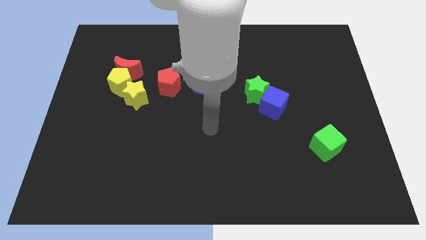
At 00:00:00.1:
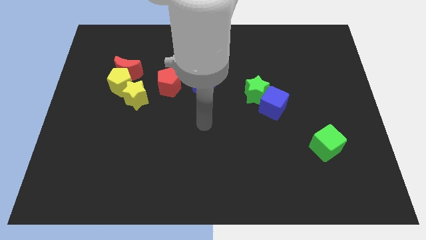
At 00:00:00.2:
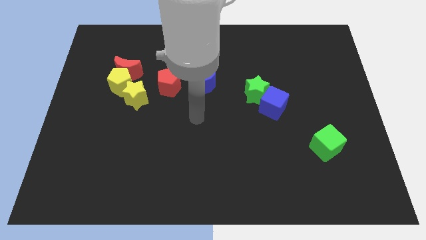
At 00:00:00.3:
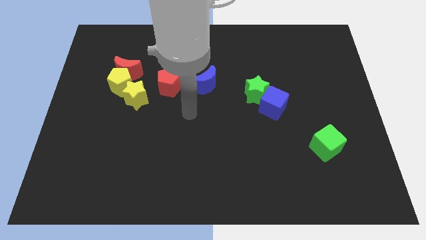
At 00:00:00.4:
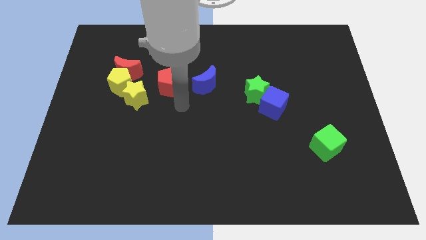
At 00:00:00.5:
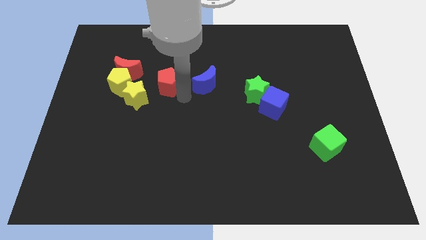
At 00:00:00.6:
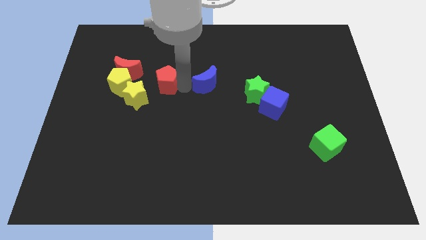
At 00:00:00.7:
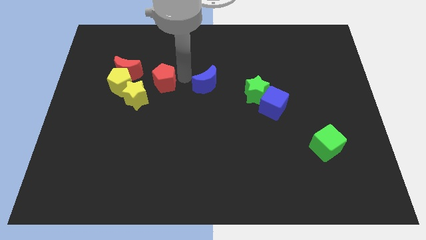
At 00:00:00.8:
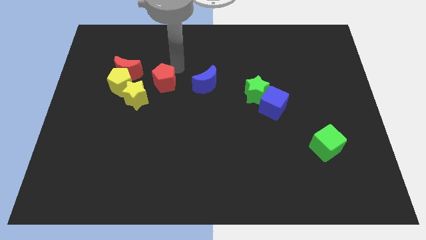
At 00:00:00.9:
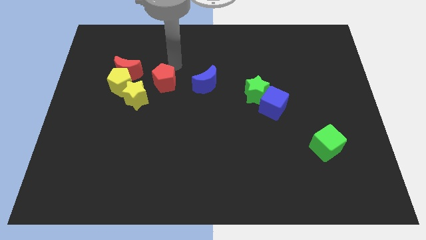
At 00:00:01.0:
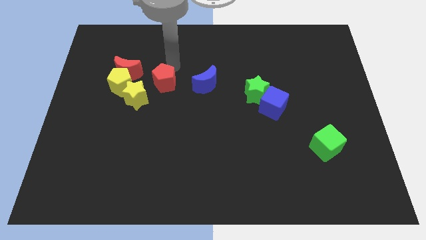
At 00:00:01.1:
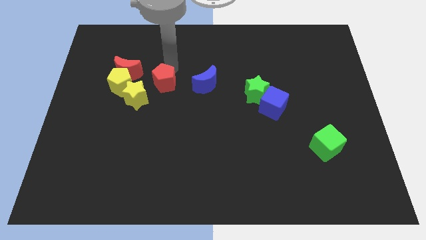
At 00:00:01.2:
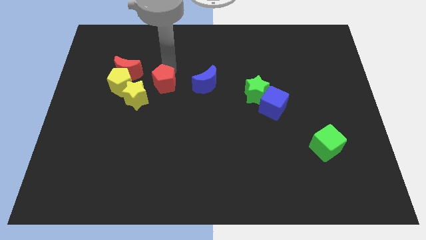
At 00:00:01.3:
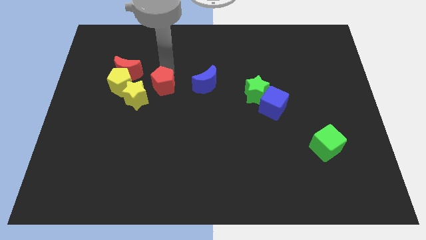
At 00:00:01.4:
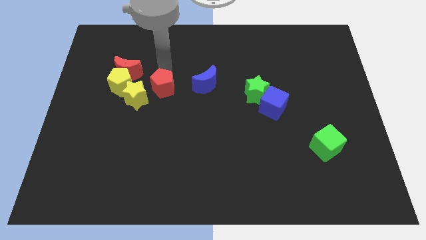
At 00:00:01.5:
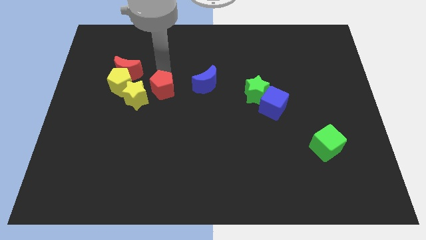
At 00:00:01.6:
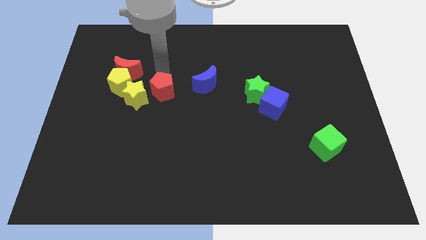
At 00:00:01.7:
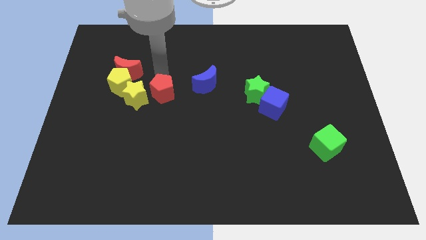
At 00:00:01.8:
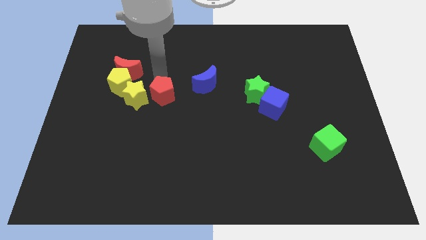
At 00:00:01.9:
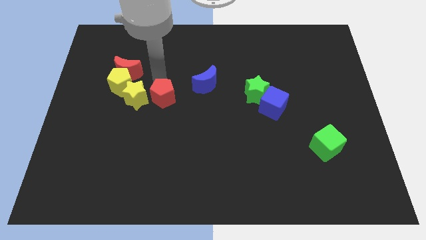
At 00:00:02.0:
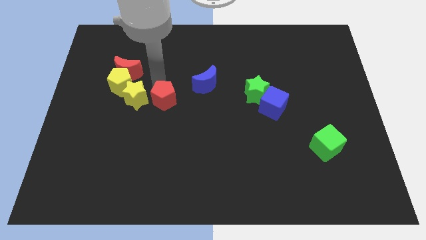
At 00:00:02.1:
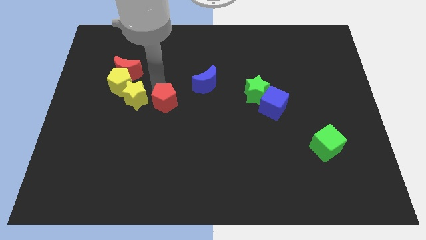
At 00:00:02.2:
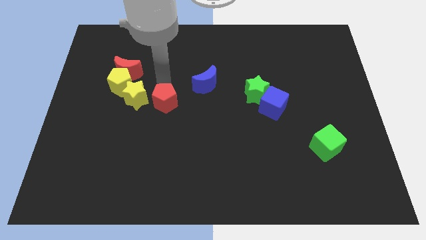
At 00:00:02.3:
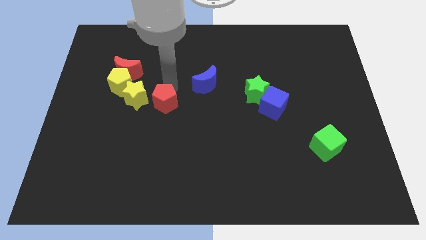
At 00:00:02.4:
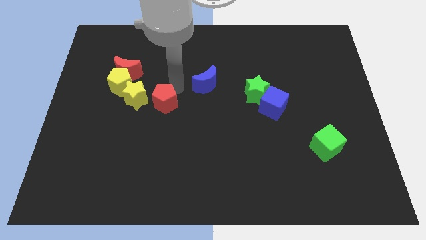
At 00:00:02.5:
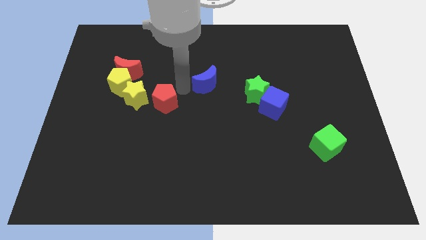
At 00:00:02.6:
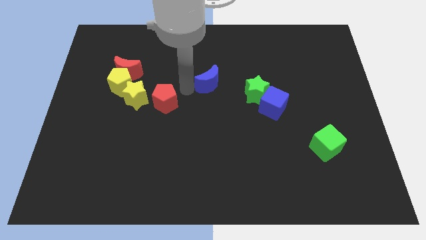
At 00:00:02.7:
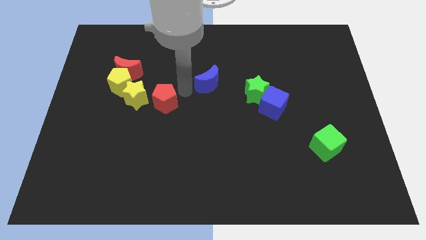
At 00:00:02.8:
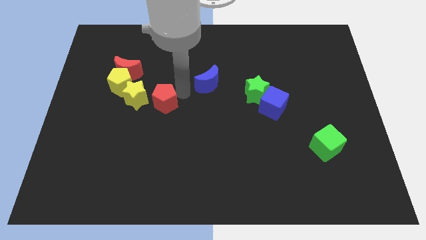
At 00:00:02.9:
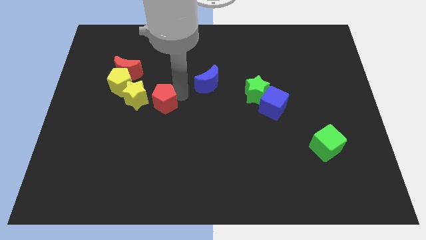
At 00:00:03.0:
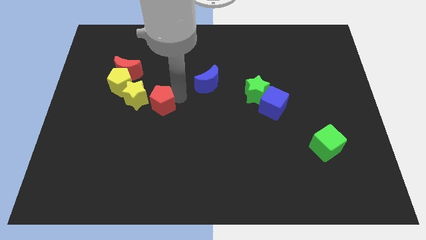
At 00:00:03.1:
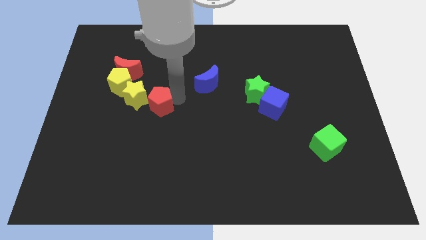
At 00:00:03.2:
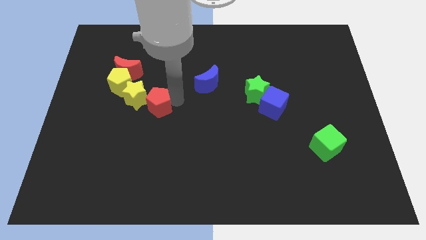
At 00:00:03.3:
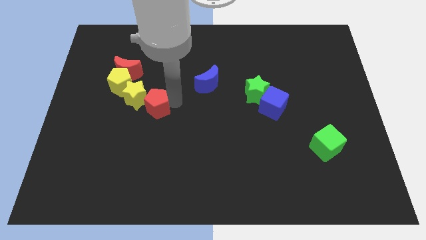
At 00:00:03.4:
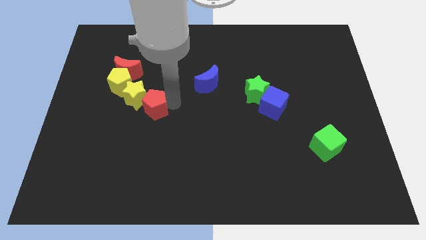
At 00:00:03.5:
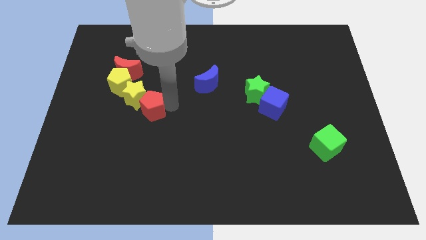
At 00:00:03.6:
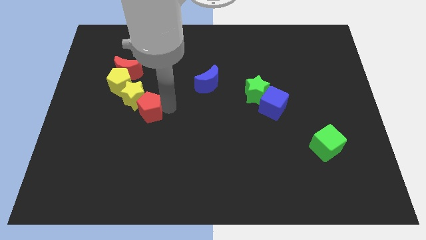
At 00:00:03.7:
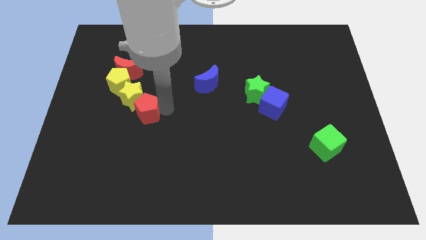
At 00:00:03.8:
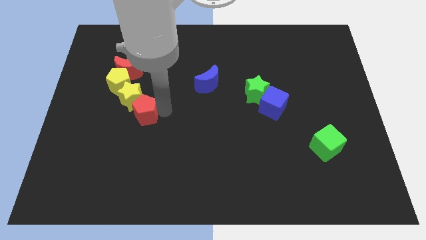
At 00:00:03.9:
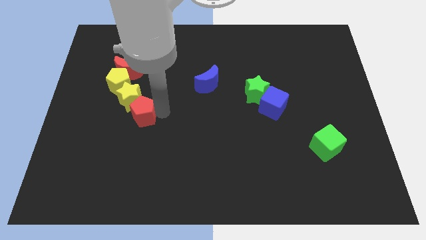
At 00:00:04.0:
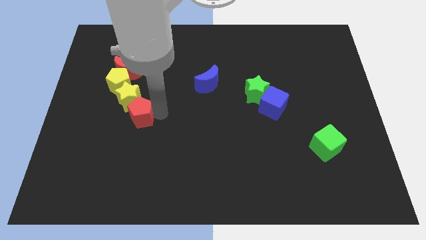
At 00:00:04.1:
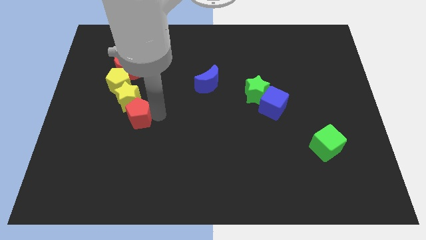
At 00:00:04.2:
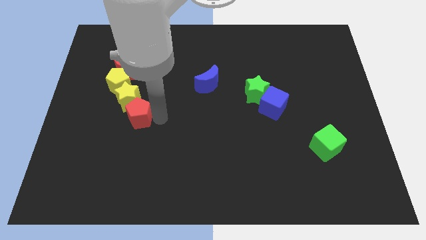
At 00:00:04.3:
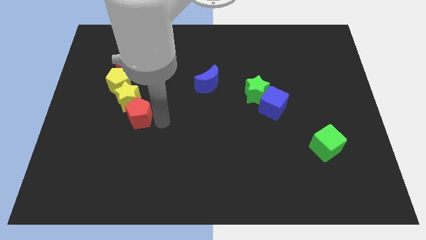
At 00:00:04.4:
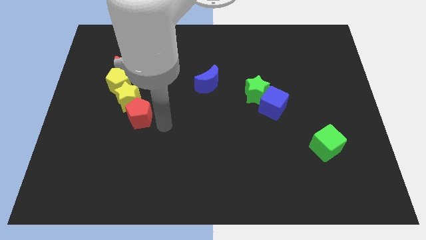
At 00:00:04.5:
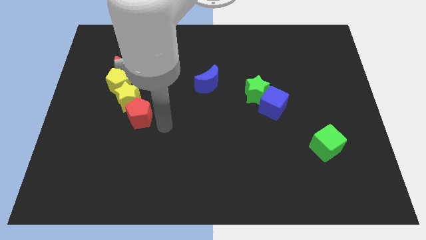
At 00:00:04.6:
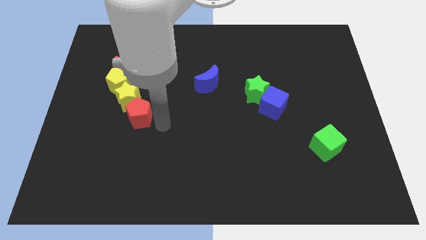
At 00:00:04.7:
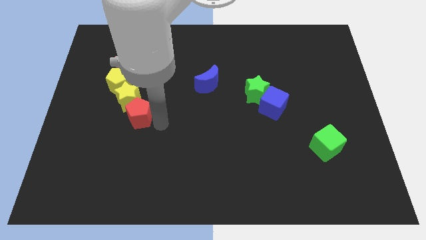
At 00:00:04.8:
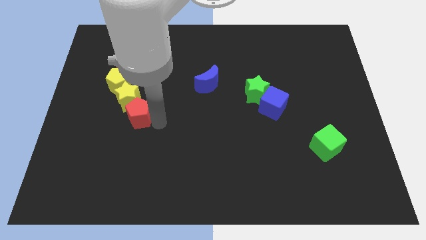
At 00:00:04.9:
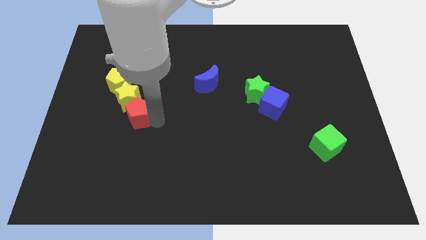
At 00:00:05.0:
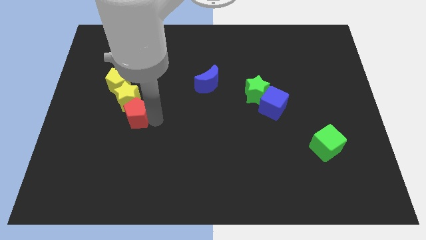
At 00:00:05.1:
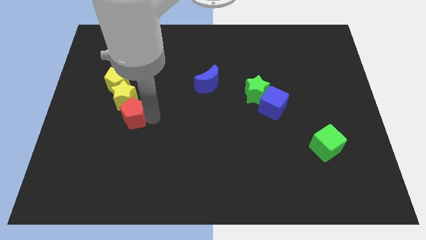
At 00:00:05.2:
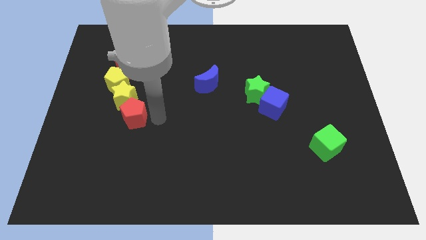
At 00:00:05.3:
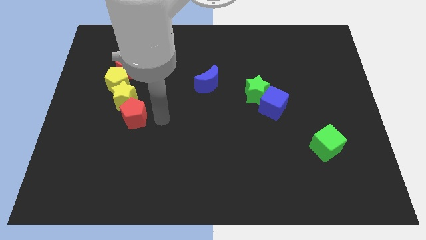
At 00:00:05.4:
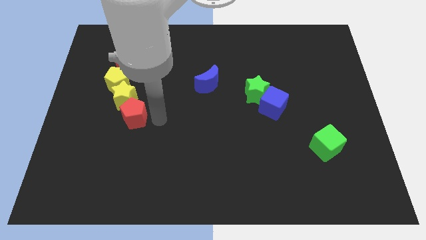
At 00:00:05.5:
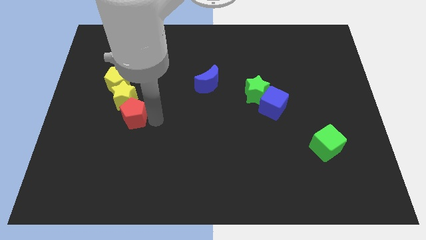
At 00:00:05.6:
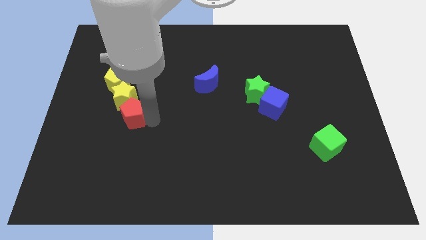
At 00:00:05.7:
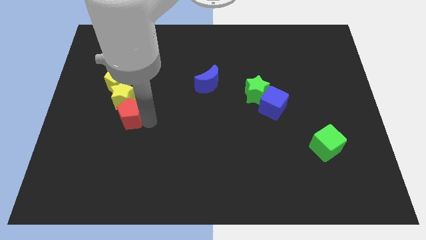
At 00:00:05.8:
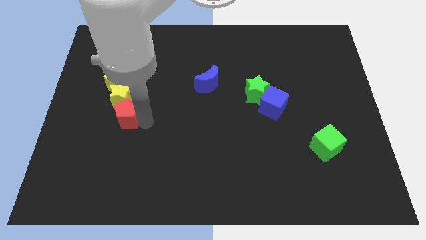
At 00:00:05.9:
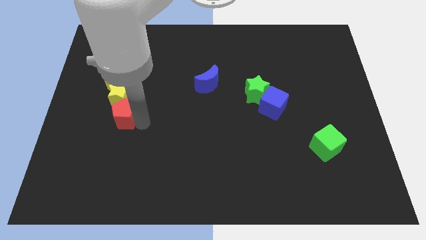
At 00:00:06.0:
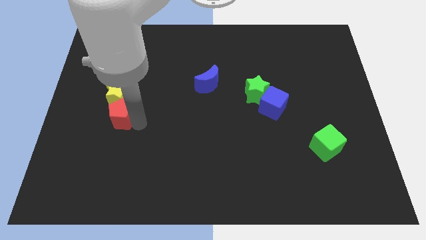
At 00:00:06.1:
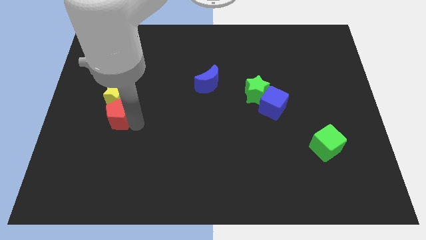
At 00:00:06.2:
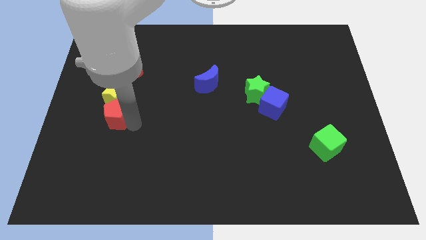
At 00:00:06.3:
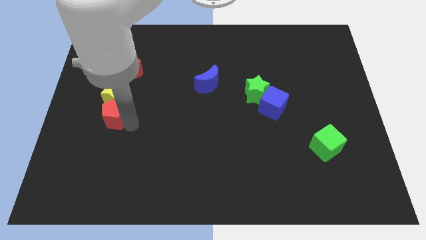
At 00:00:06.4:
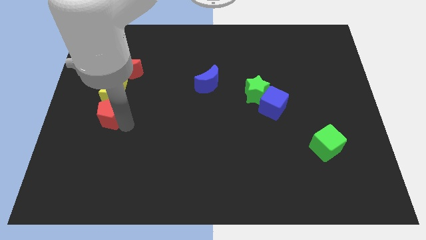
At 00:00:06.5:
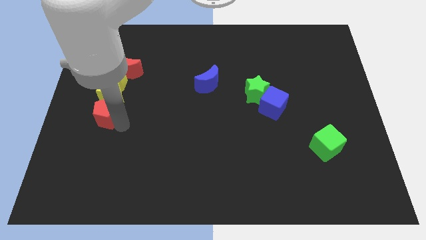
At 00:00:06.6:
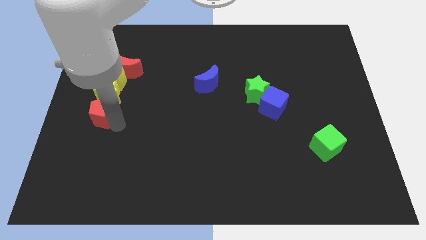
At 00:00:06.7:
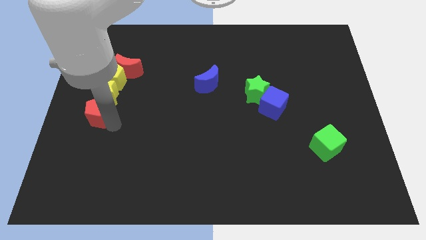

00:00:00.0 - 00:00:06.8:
put the red pentagon to the left side
